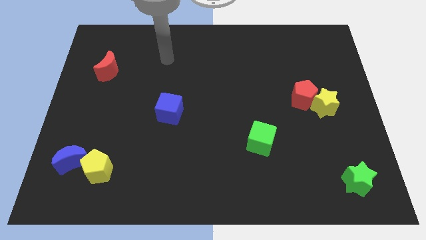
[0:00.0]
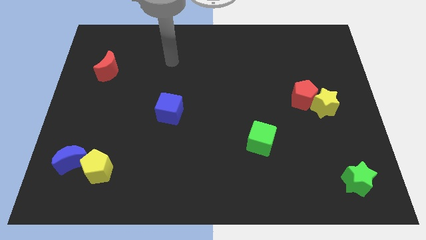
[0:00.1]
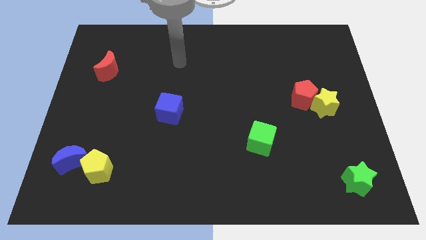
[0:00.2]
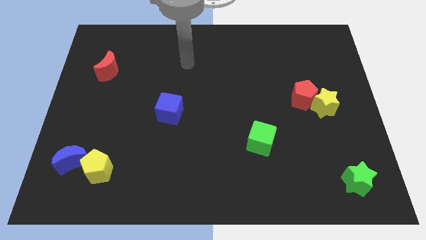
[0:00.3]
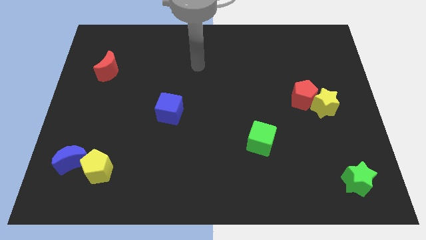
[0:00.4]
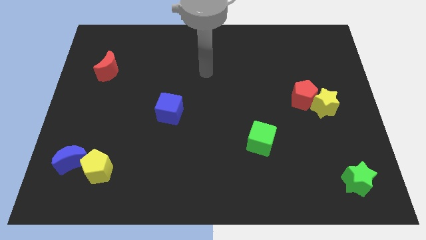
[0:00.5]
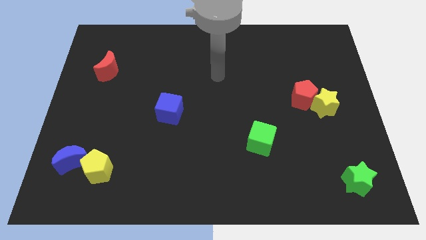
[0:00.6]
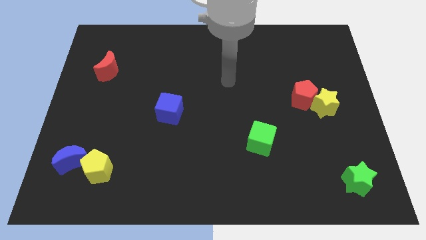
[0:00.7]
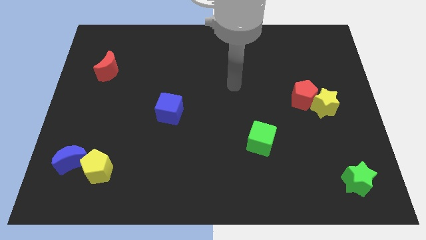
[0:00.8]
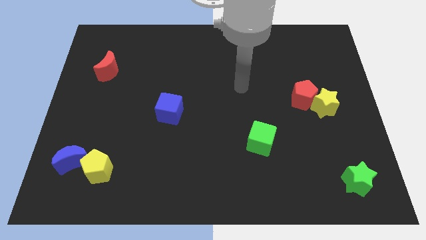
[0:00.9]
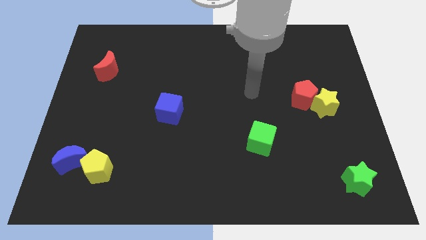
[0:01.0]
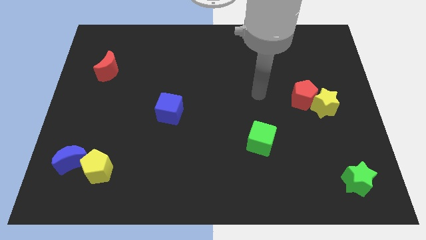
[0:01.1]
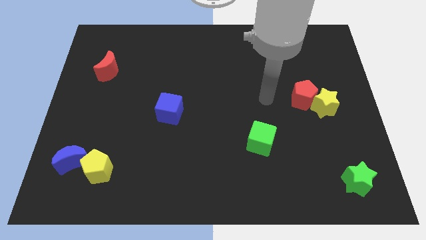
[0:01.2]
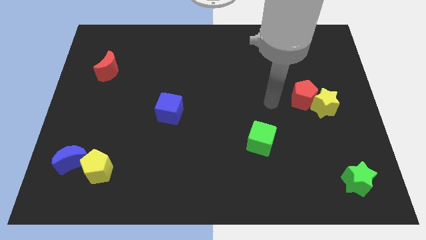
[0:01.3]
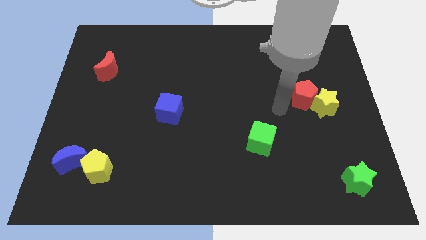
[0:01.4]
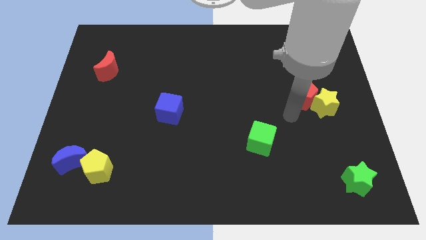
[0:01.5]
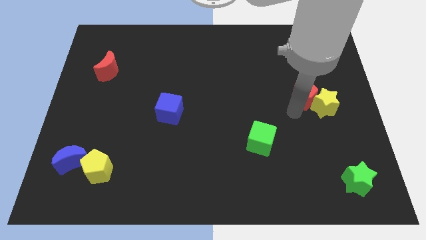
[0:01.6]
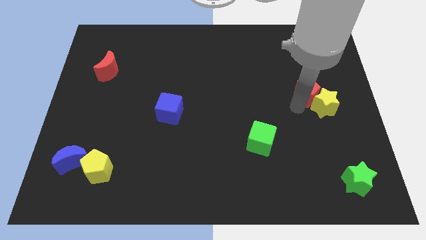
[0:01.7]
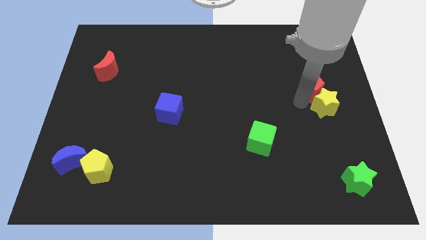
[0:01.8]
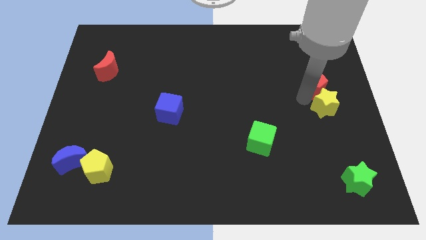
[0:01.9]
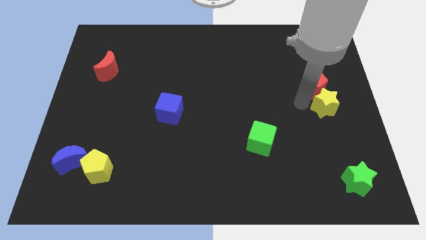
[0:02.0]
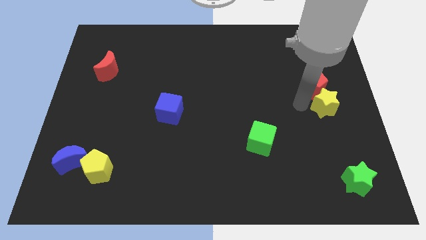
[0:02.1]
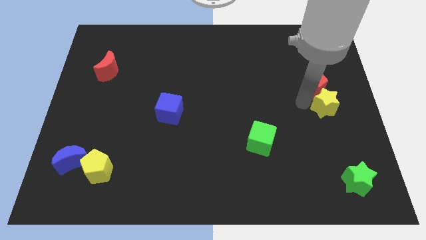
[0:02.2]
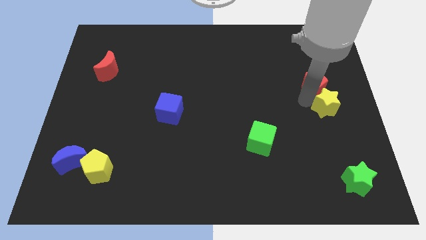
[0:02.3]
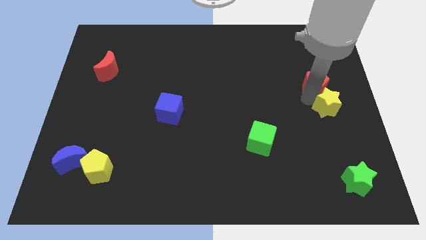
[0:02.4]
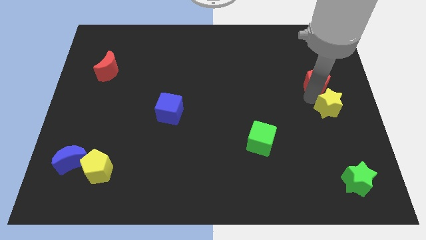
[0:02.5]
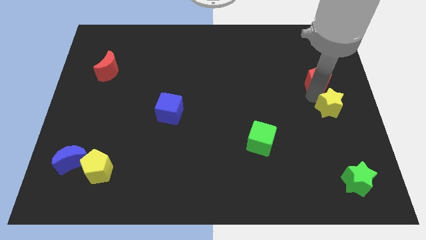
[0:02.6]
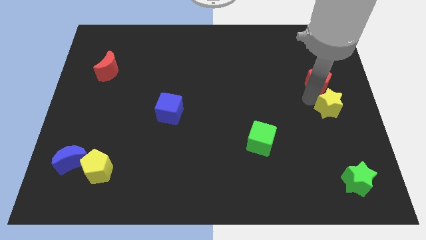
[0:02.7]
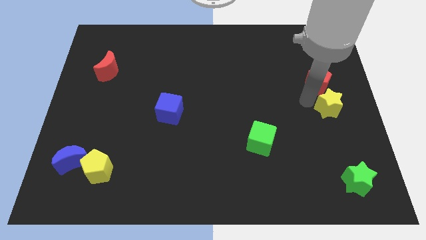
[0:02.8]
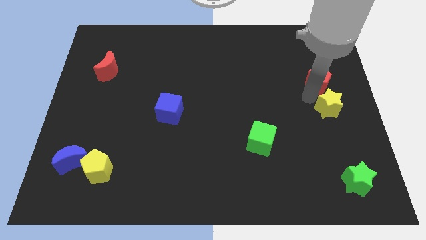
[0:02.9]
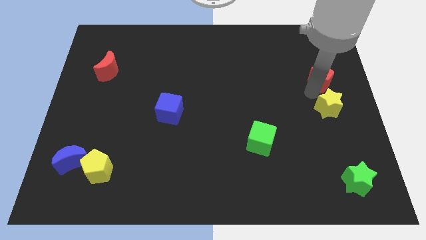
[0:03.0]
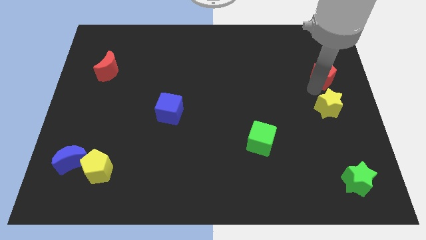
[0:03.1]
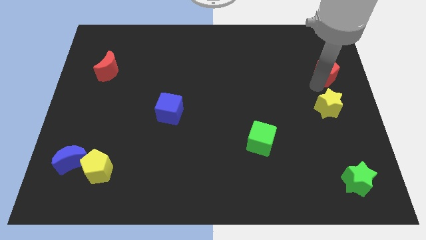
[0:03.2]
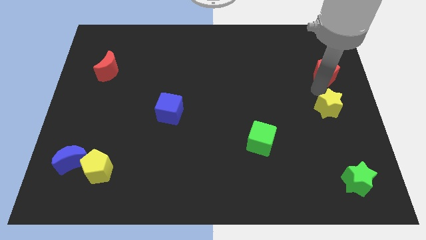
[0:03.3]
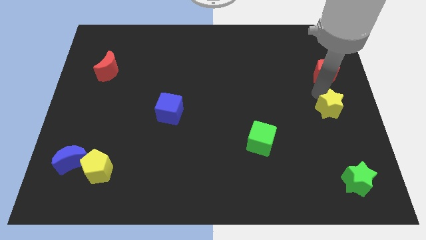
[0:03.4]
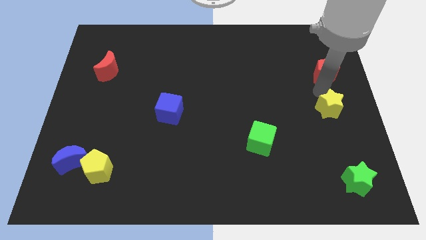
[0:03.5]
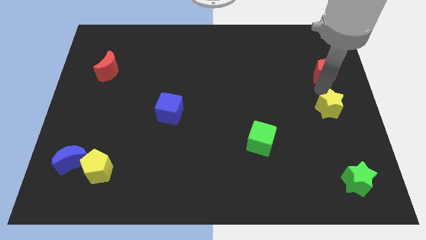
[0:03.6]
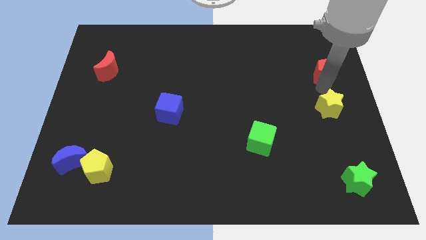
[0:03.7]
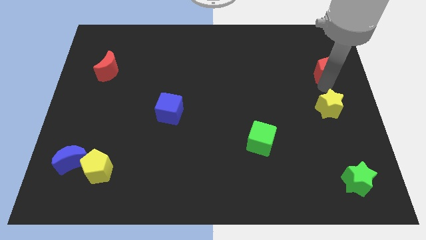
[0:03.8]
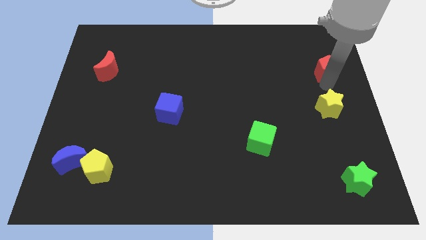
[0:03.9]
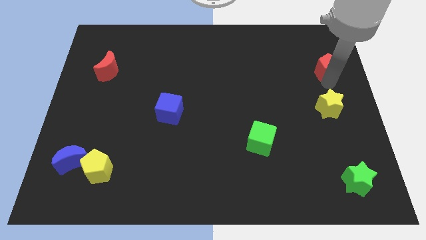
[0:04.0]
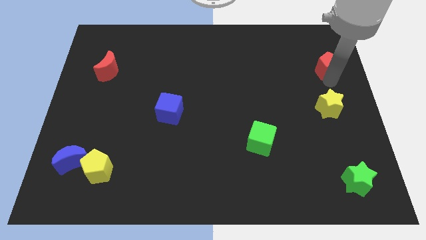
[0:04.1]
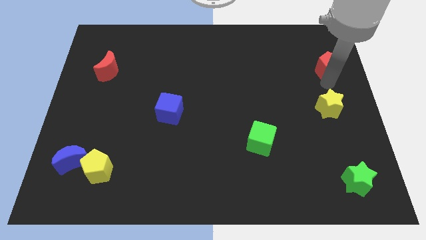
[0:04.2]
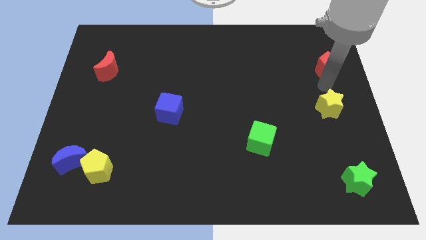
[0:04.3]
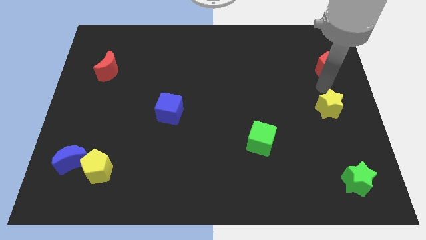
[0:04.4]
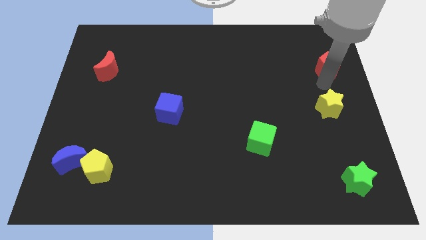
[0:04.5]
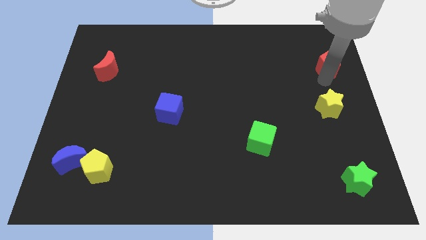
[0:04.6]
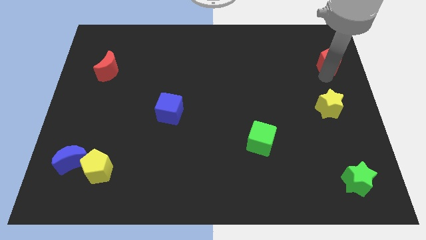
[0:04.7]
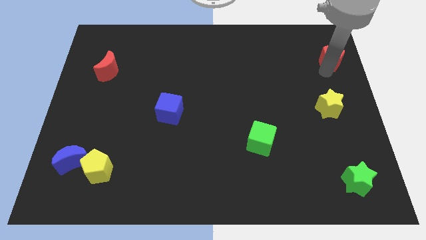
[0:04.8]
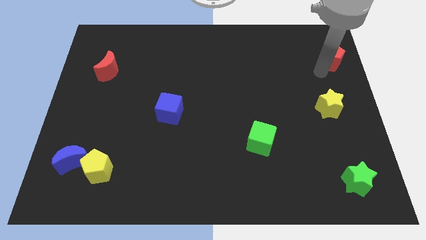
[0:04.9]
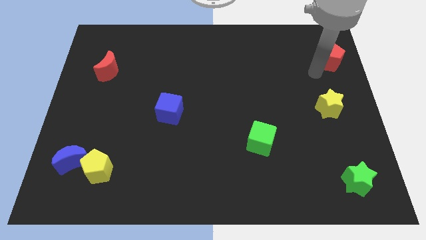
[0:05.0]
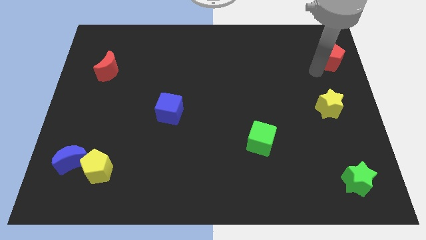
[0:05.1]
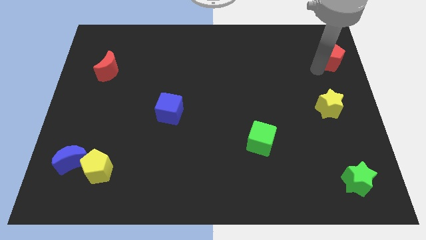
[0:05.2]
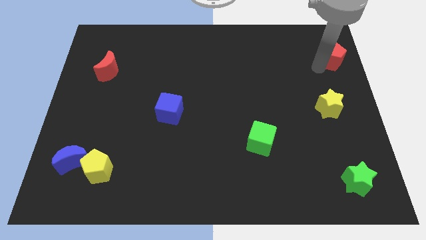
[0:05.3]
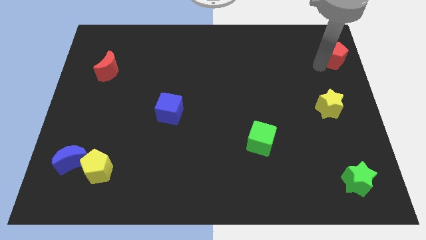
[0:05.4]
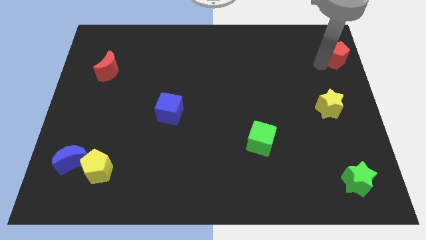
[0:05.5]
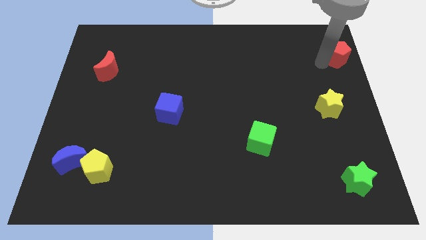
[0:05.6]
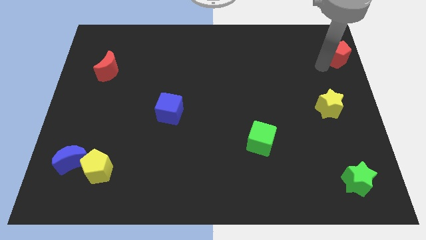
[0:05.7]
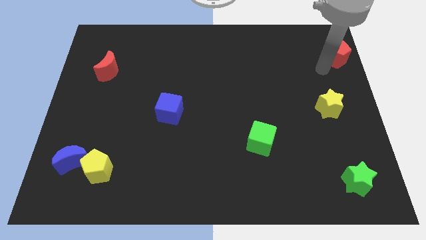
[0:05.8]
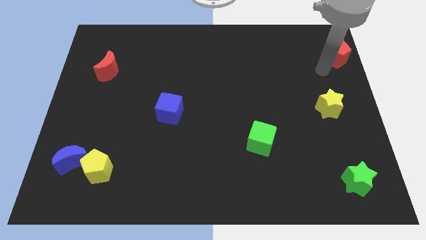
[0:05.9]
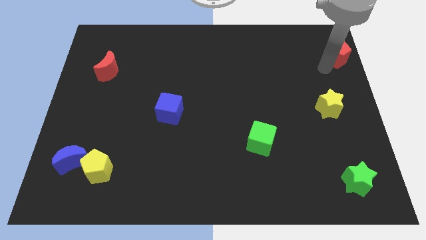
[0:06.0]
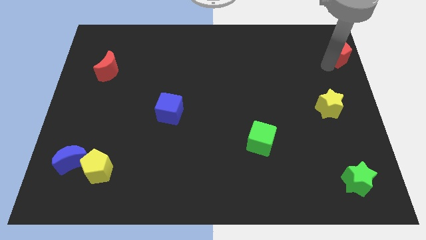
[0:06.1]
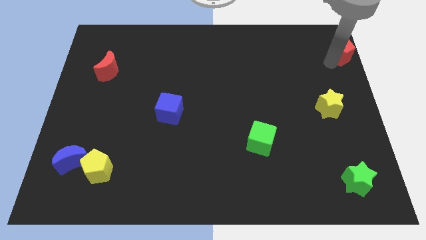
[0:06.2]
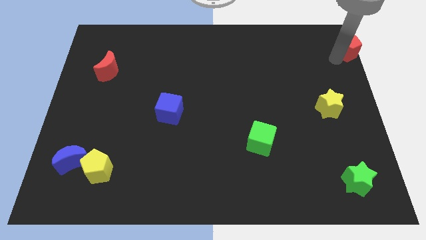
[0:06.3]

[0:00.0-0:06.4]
move the red pentagon to the top right corner
